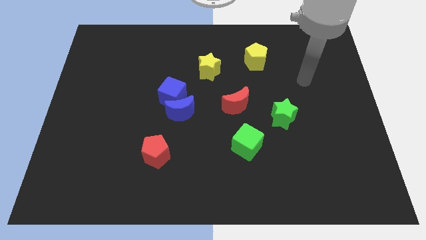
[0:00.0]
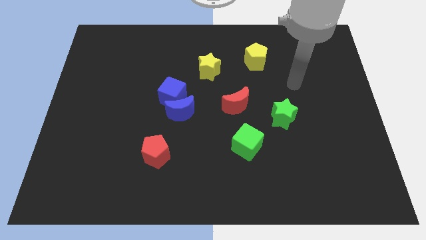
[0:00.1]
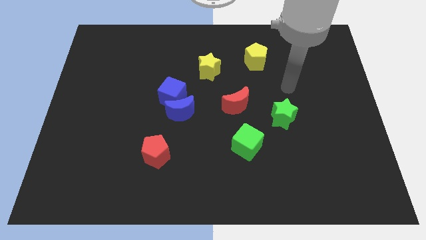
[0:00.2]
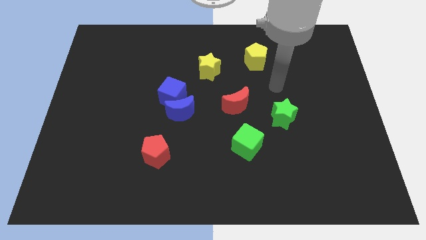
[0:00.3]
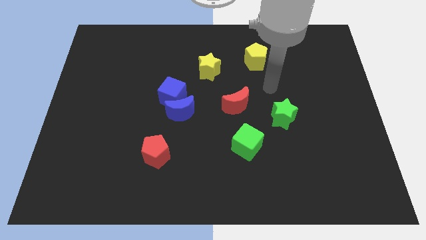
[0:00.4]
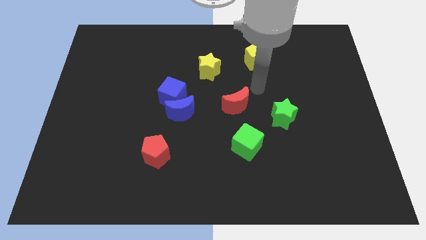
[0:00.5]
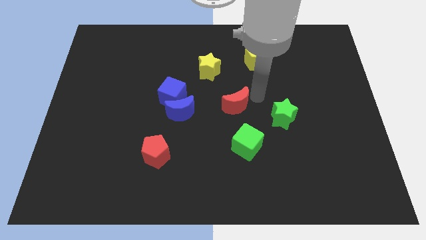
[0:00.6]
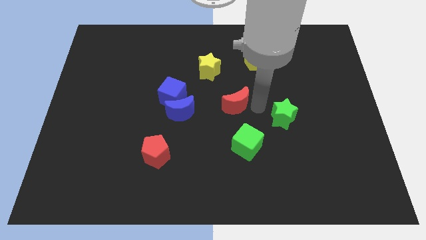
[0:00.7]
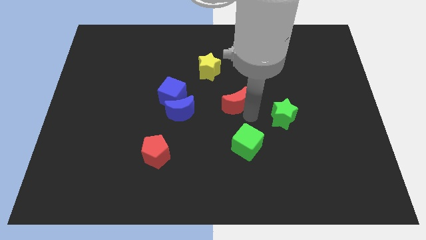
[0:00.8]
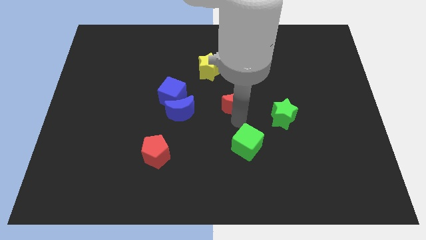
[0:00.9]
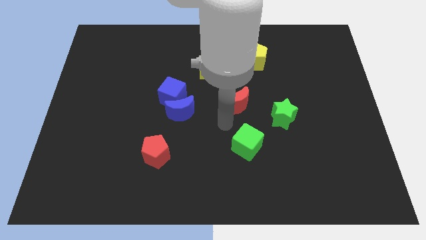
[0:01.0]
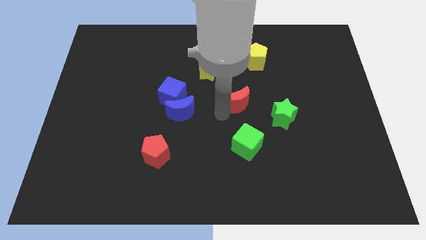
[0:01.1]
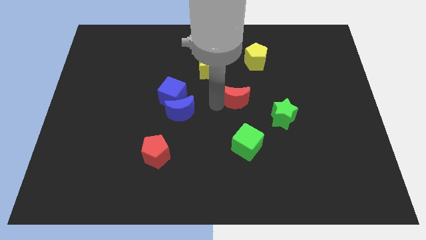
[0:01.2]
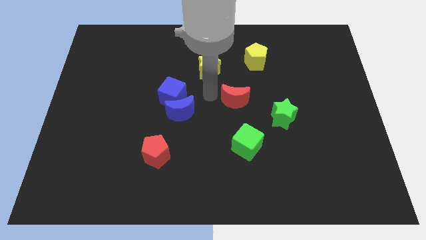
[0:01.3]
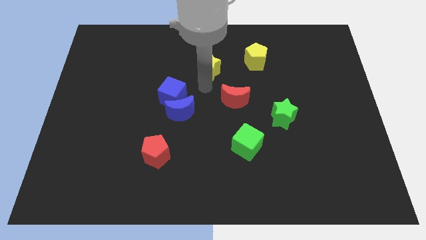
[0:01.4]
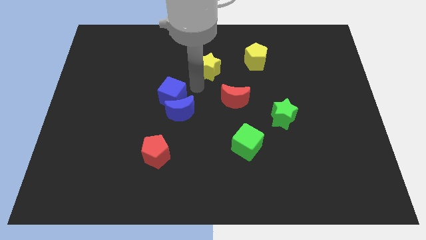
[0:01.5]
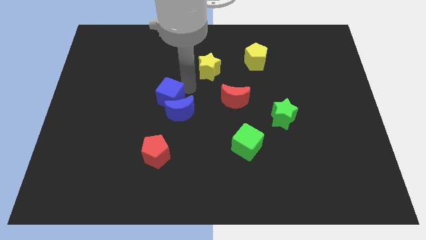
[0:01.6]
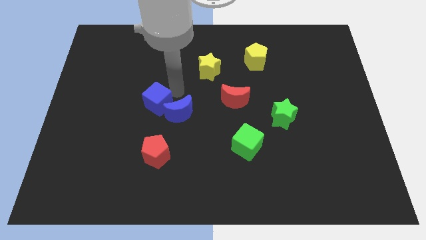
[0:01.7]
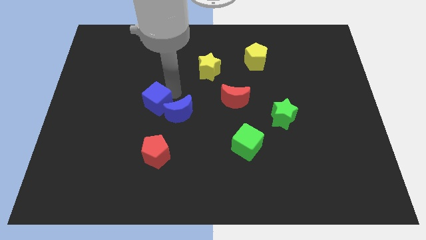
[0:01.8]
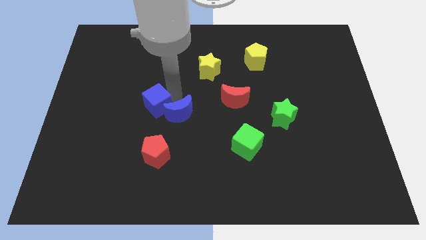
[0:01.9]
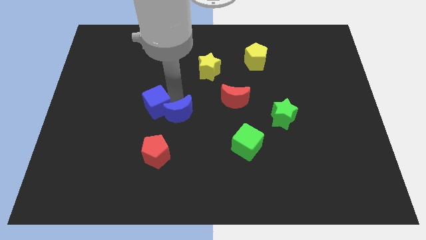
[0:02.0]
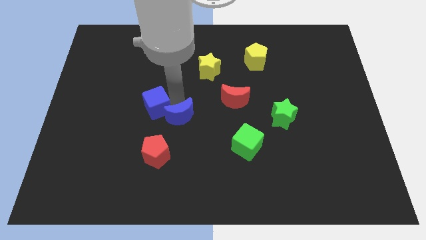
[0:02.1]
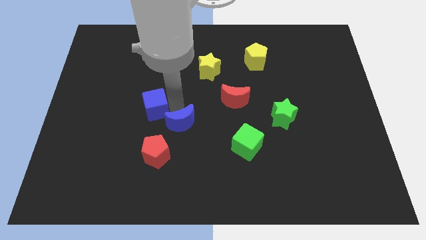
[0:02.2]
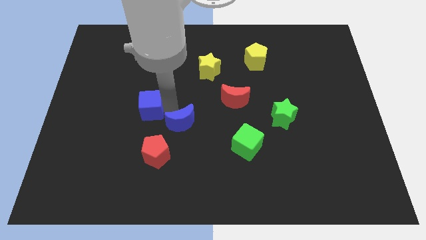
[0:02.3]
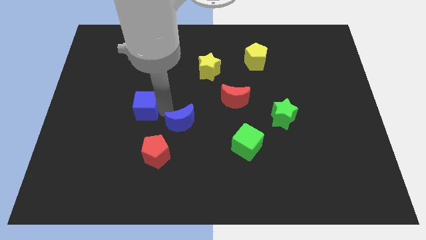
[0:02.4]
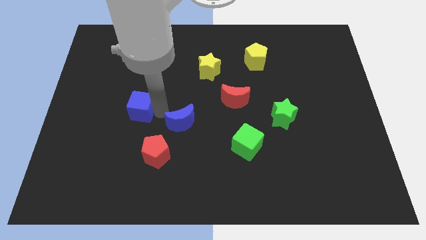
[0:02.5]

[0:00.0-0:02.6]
pull the blue moon apart from the blue cube

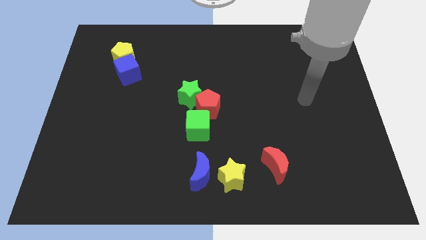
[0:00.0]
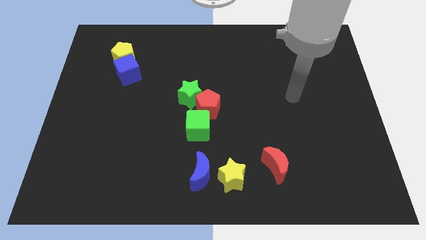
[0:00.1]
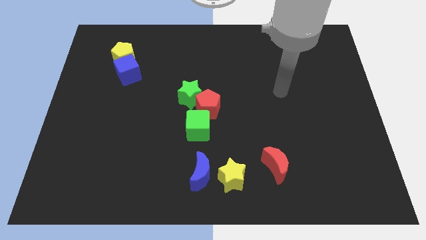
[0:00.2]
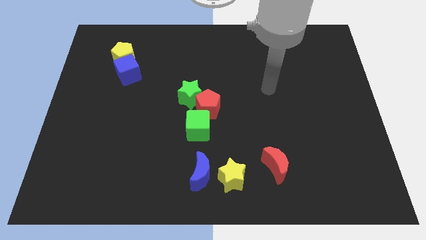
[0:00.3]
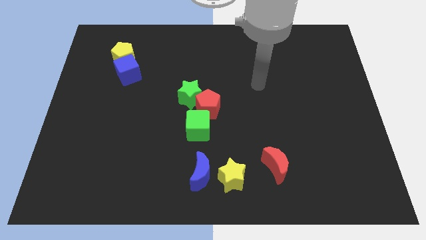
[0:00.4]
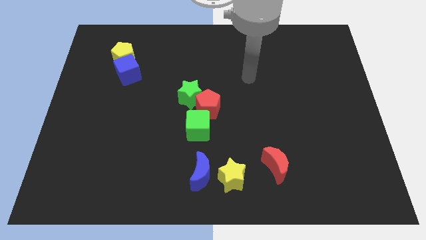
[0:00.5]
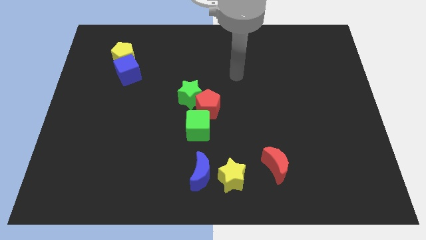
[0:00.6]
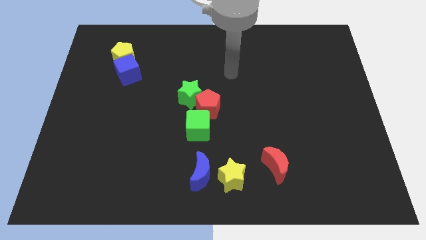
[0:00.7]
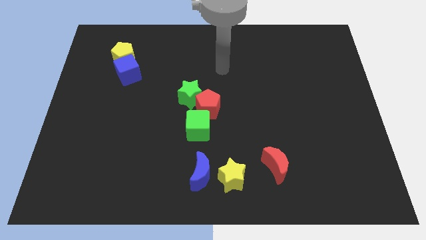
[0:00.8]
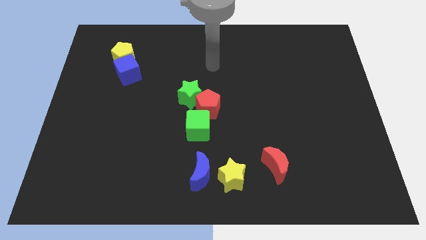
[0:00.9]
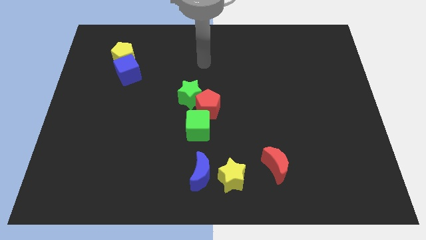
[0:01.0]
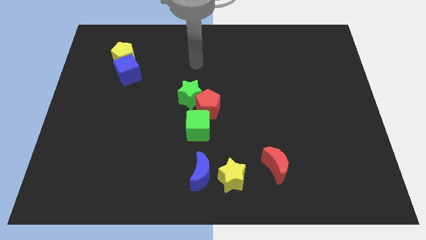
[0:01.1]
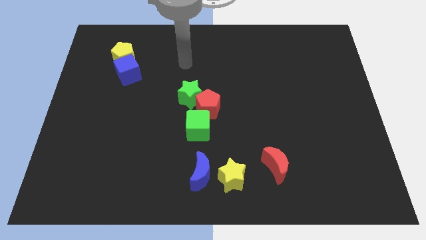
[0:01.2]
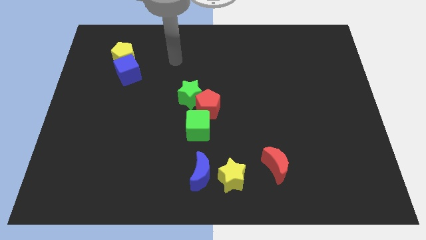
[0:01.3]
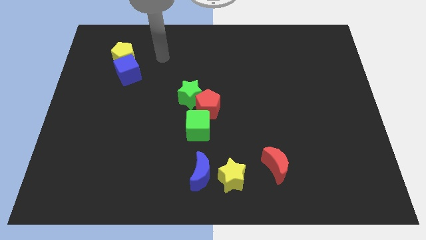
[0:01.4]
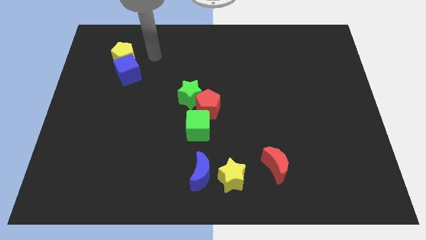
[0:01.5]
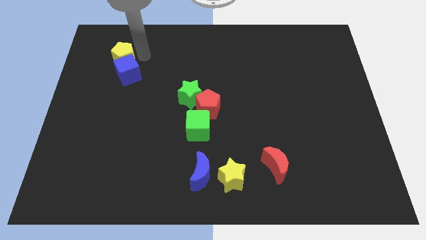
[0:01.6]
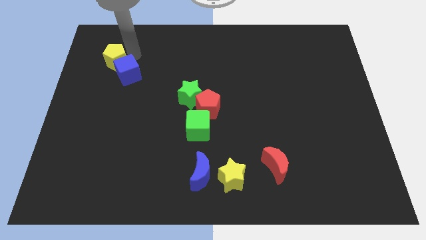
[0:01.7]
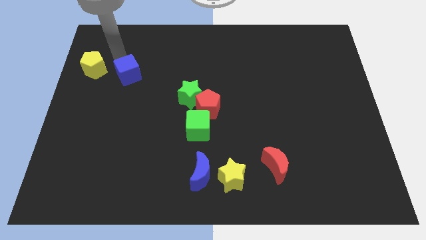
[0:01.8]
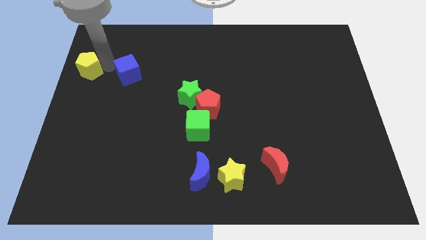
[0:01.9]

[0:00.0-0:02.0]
separate the blue cube from the yellow pentagon

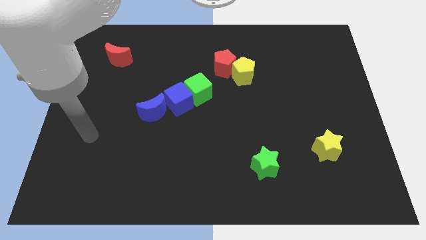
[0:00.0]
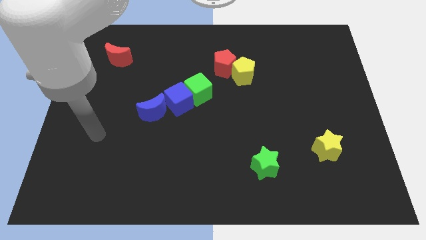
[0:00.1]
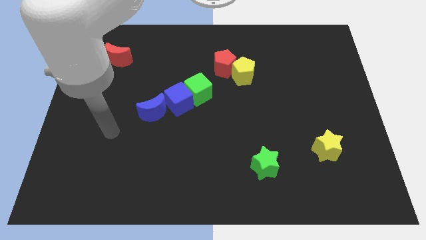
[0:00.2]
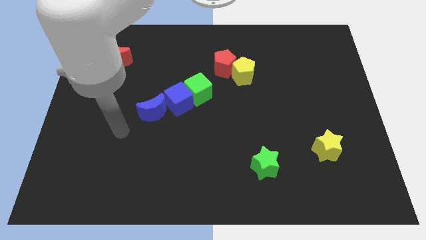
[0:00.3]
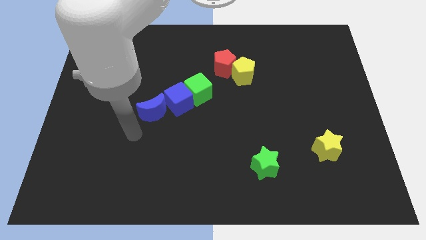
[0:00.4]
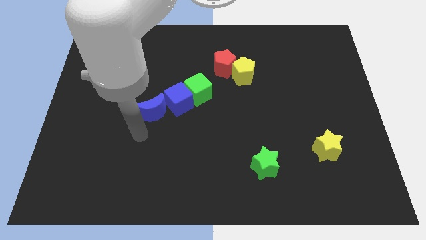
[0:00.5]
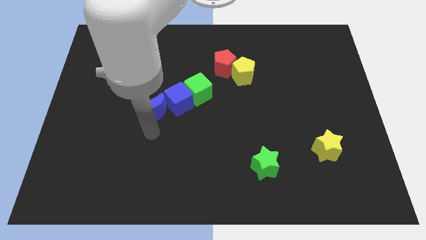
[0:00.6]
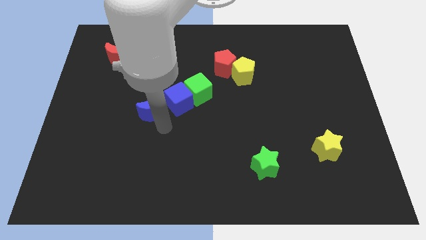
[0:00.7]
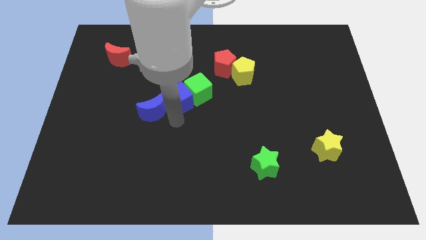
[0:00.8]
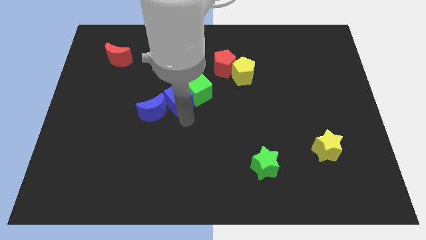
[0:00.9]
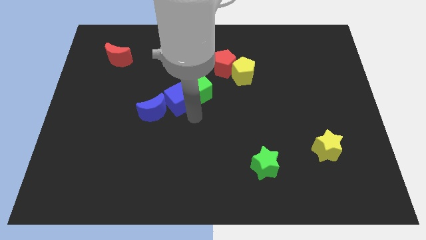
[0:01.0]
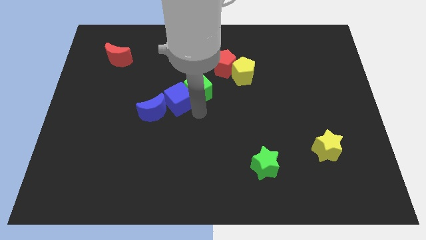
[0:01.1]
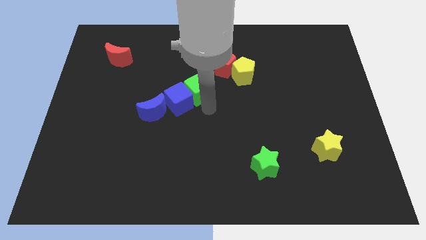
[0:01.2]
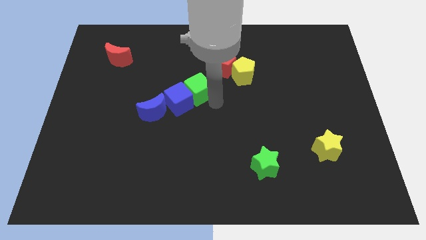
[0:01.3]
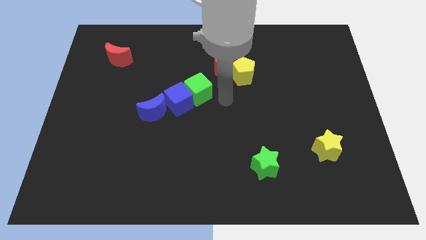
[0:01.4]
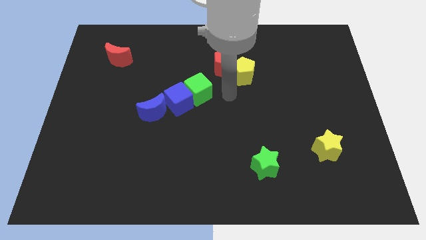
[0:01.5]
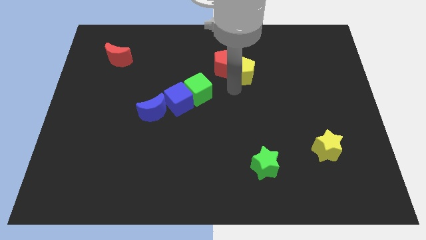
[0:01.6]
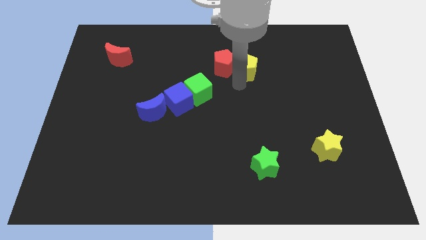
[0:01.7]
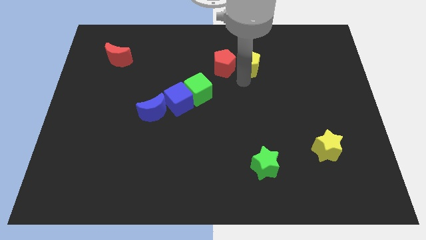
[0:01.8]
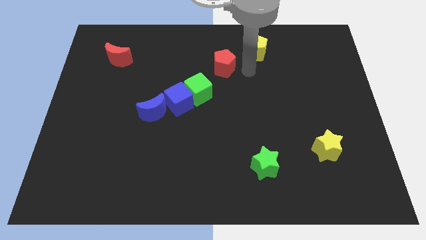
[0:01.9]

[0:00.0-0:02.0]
separate the red pentagon from the yellow pentagon

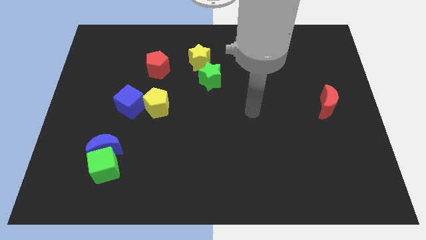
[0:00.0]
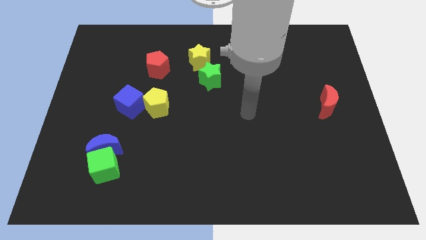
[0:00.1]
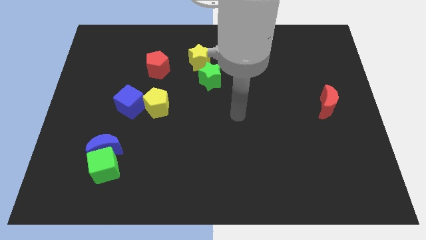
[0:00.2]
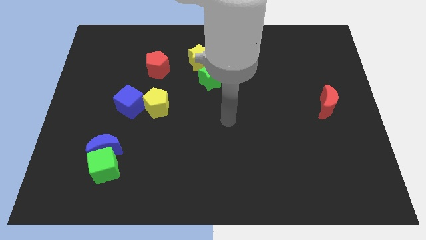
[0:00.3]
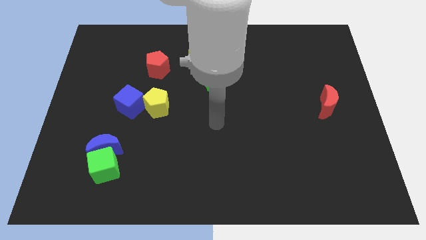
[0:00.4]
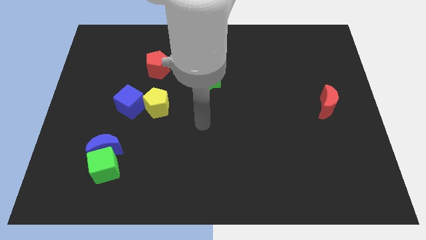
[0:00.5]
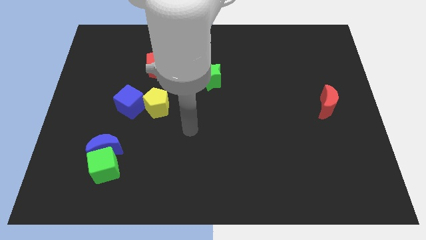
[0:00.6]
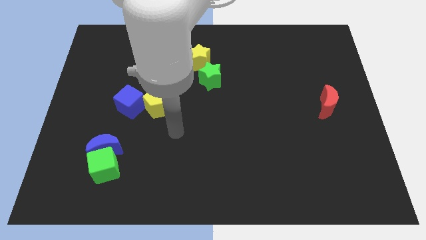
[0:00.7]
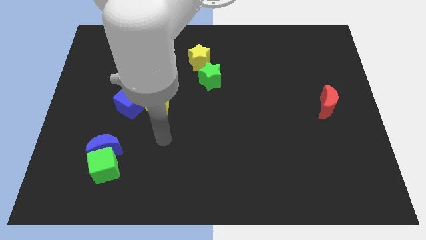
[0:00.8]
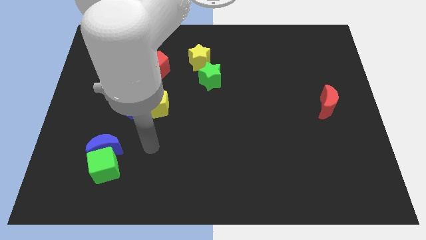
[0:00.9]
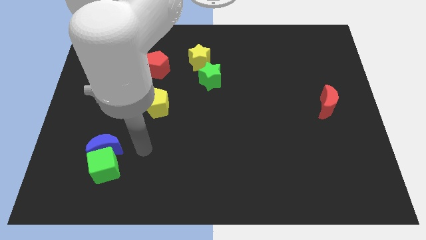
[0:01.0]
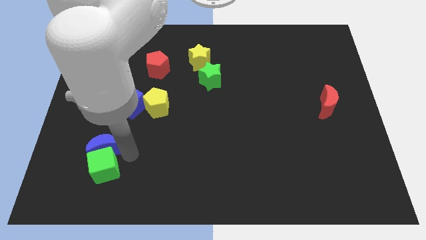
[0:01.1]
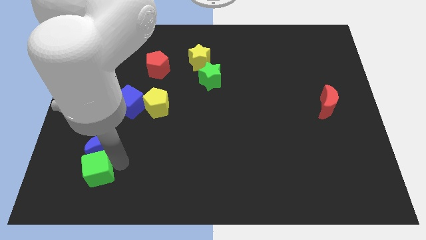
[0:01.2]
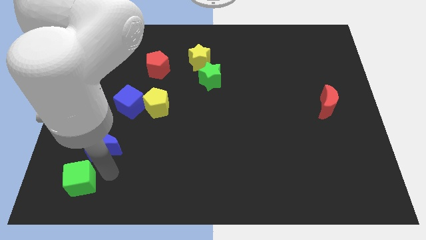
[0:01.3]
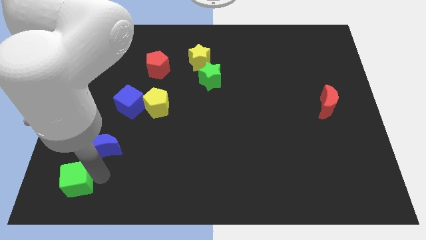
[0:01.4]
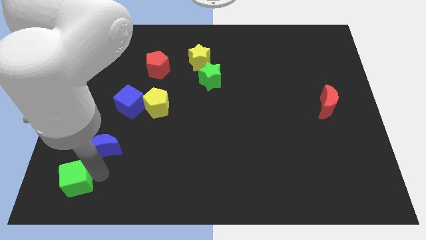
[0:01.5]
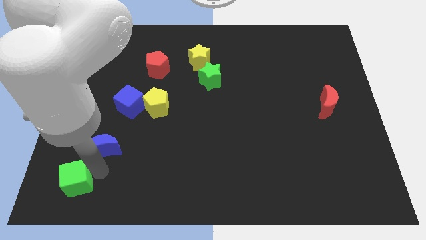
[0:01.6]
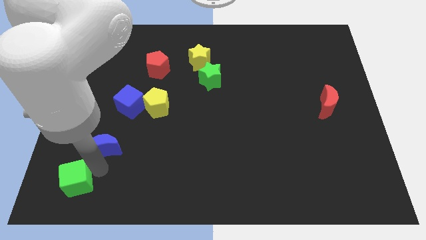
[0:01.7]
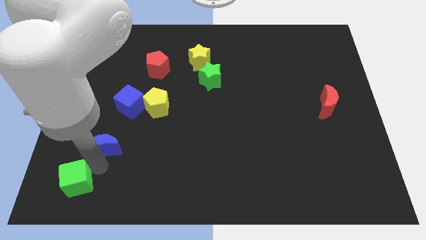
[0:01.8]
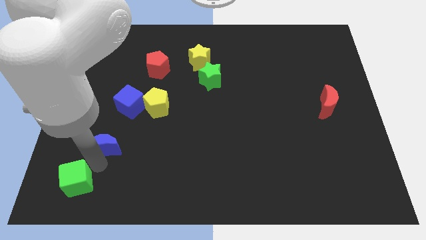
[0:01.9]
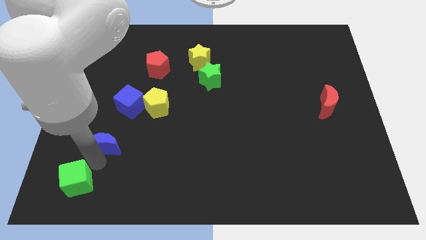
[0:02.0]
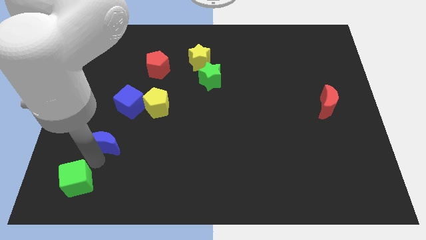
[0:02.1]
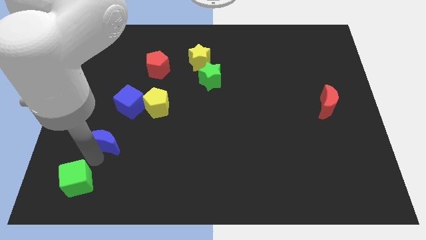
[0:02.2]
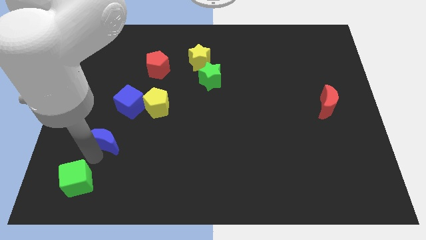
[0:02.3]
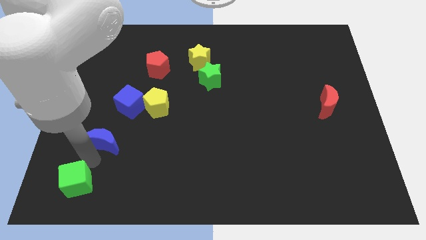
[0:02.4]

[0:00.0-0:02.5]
move the blue moon away from the green cube

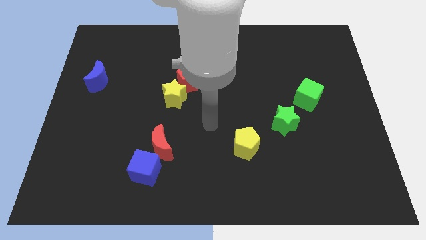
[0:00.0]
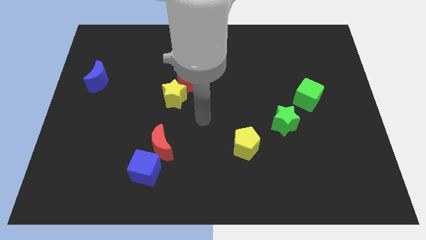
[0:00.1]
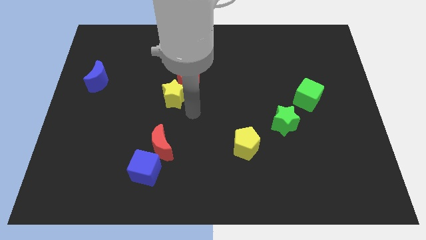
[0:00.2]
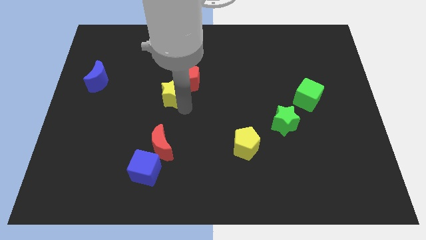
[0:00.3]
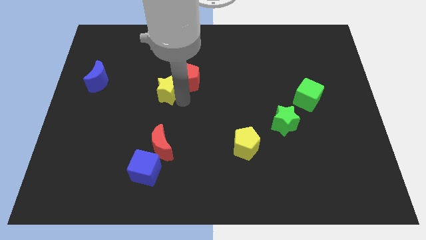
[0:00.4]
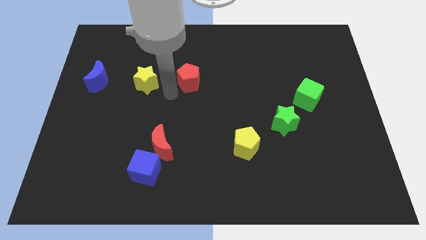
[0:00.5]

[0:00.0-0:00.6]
pull the red pentagon apart from the yellow star
